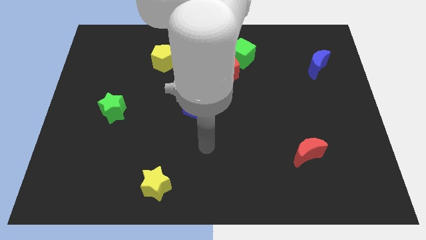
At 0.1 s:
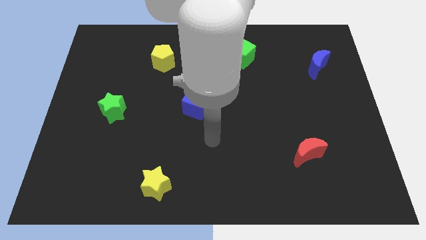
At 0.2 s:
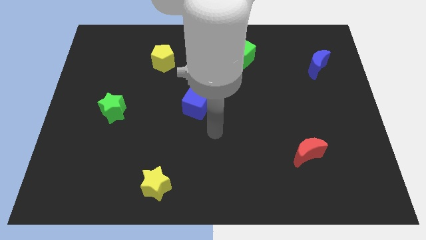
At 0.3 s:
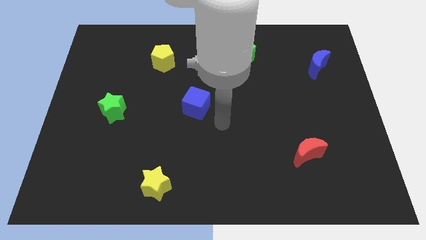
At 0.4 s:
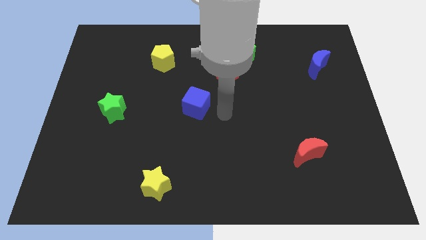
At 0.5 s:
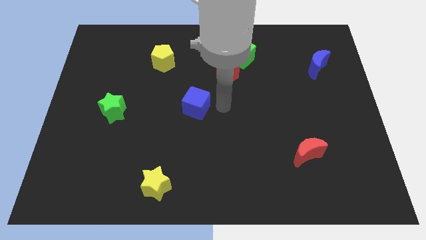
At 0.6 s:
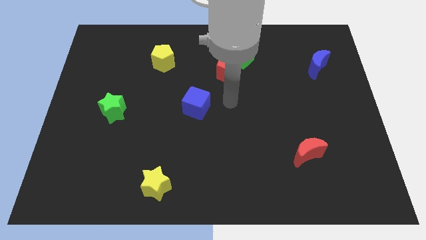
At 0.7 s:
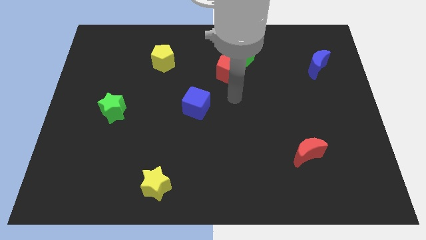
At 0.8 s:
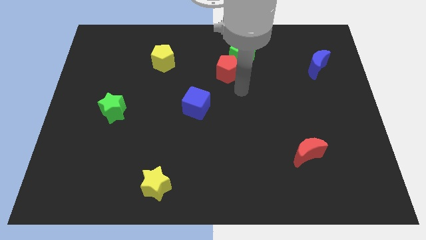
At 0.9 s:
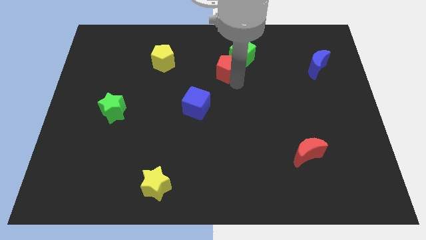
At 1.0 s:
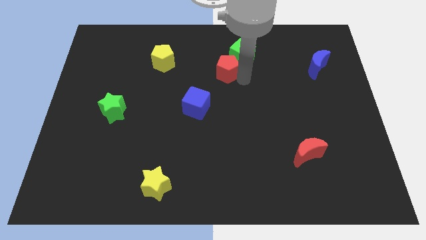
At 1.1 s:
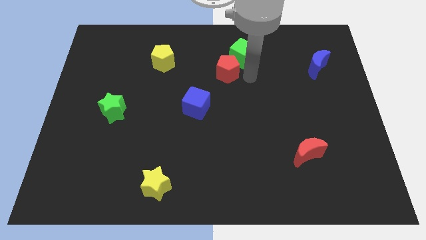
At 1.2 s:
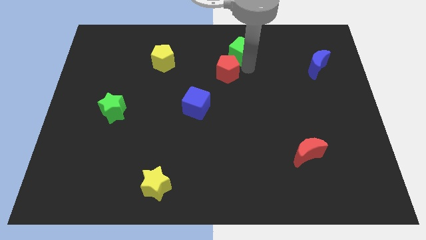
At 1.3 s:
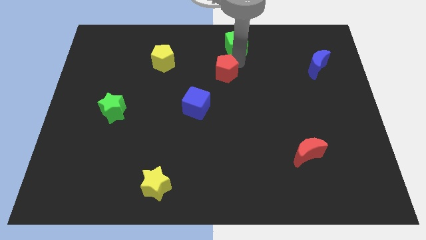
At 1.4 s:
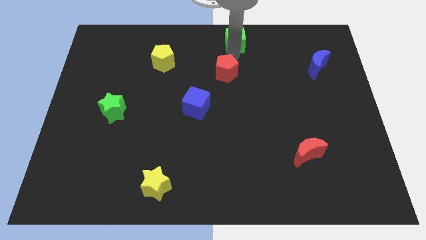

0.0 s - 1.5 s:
separate the red pentagon from the green cube

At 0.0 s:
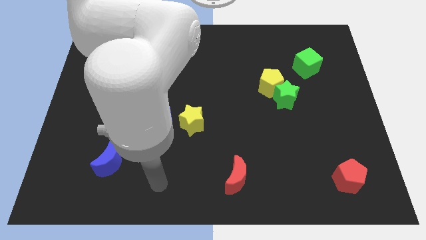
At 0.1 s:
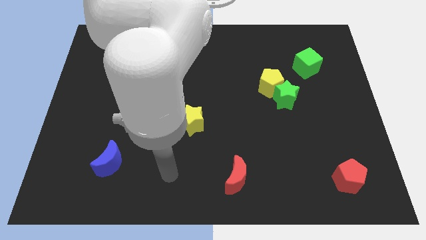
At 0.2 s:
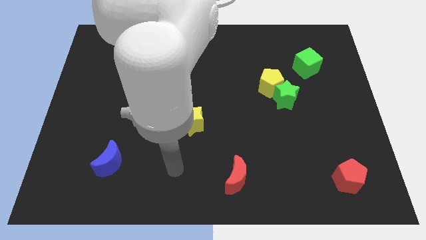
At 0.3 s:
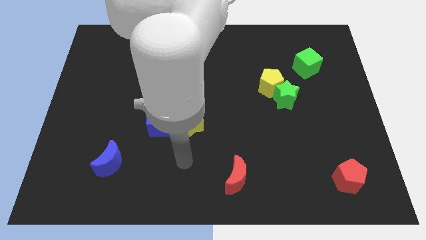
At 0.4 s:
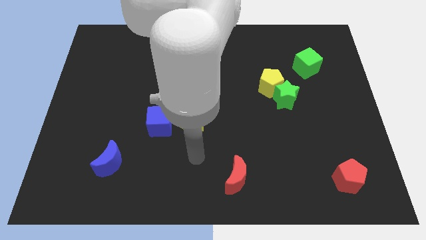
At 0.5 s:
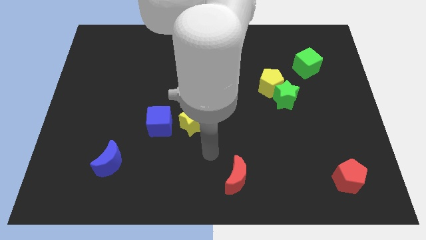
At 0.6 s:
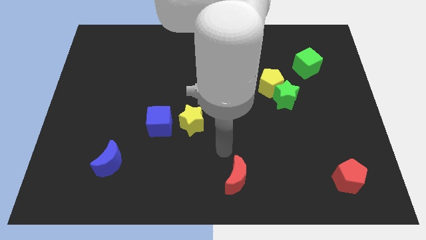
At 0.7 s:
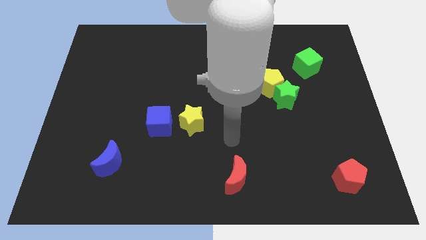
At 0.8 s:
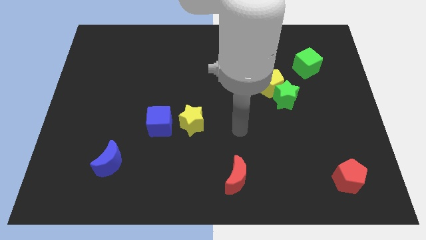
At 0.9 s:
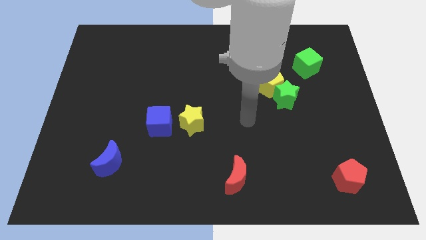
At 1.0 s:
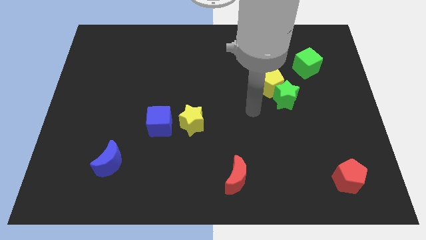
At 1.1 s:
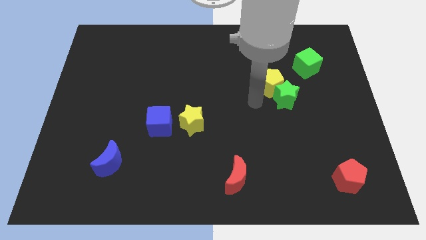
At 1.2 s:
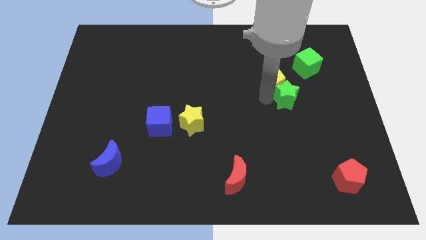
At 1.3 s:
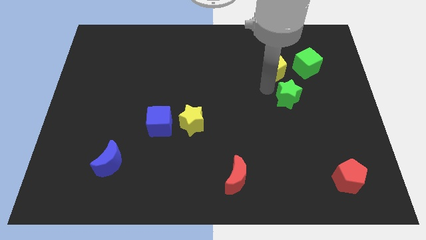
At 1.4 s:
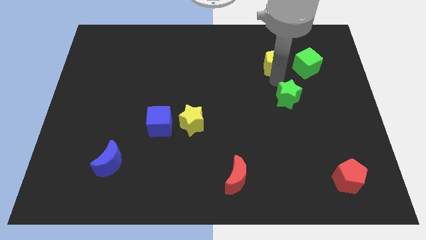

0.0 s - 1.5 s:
separate the green star from the yellow pentagon

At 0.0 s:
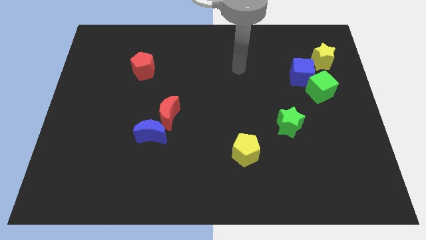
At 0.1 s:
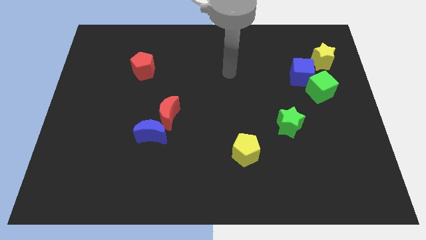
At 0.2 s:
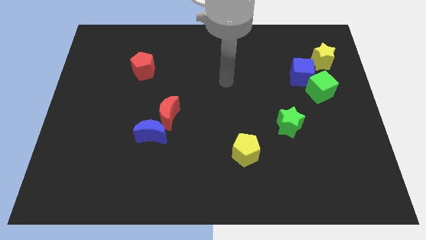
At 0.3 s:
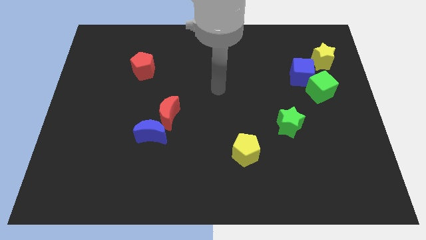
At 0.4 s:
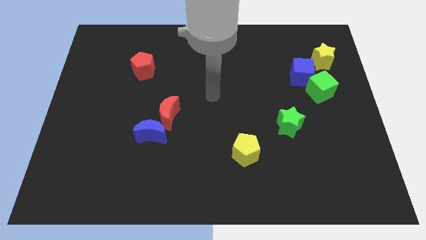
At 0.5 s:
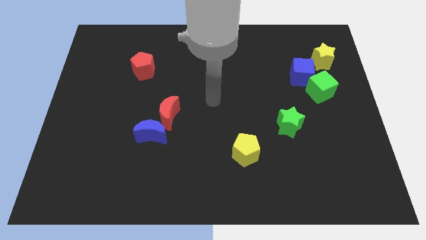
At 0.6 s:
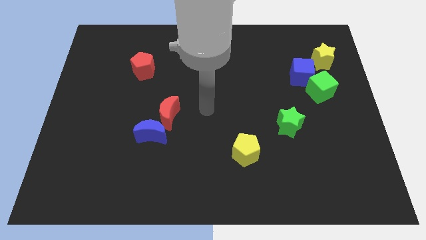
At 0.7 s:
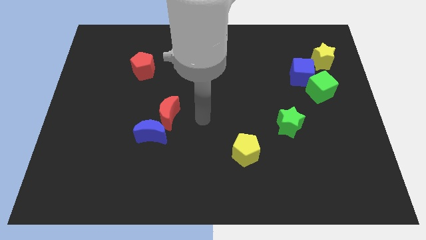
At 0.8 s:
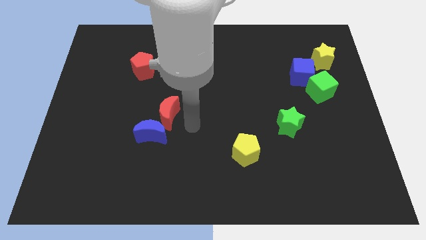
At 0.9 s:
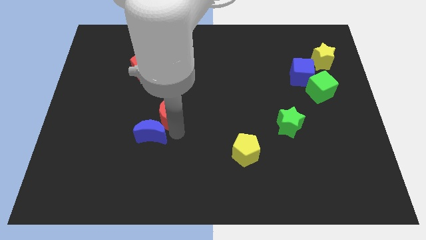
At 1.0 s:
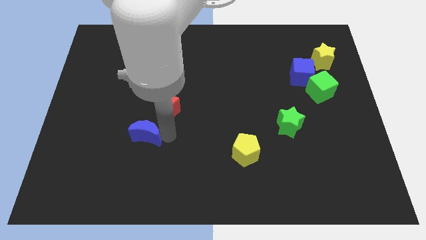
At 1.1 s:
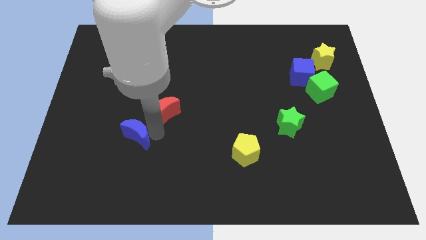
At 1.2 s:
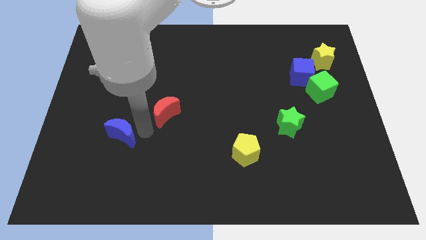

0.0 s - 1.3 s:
move the red moon away from the blue moon

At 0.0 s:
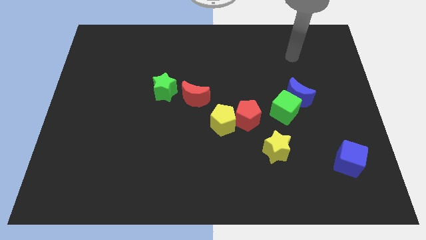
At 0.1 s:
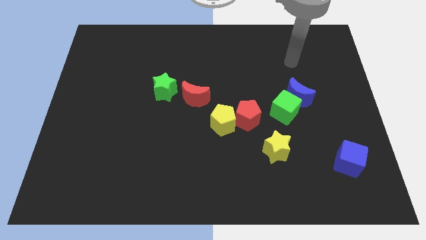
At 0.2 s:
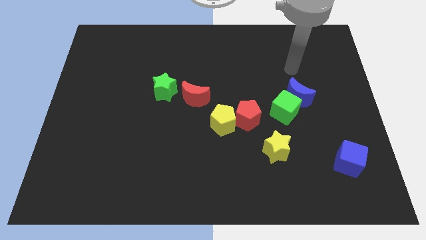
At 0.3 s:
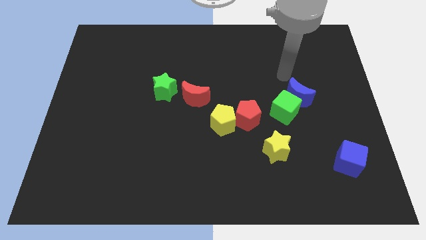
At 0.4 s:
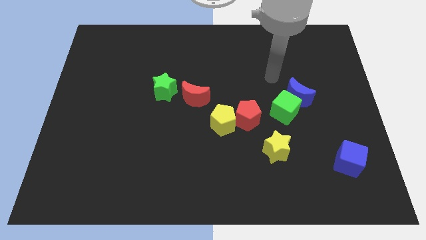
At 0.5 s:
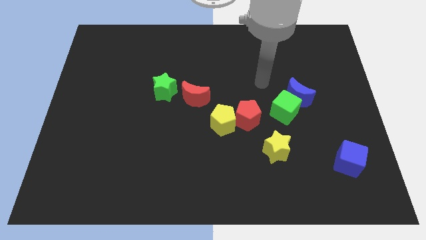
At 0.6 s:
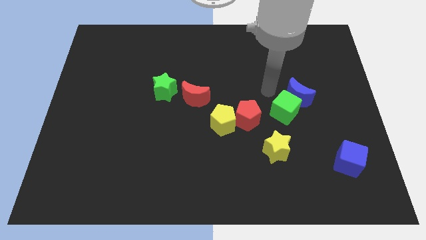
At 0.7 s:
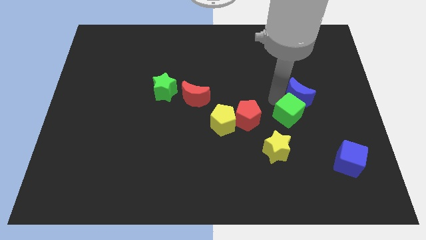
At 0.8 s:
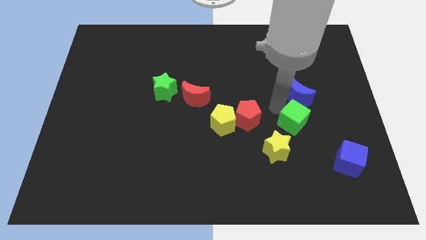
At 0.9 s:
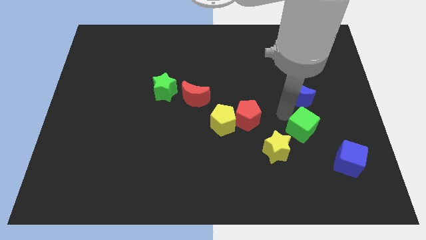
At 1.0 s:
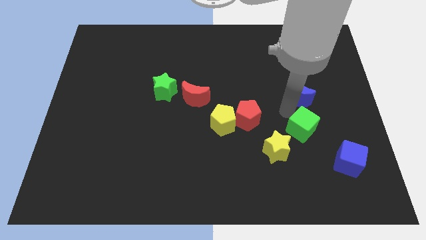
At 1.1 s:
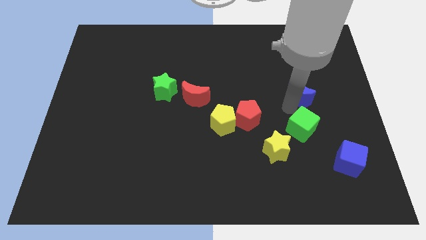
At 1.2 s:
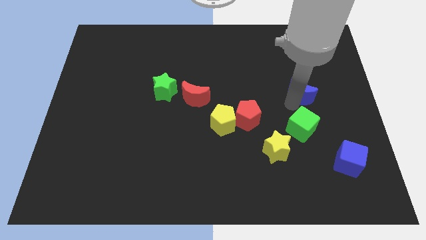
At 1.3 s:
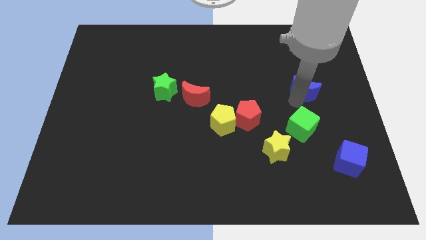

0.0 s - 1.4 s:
pull the blue moon apart from the green cube

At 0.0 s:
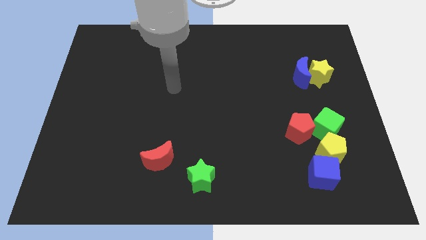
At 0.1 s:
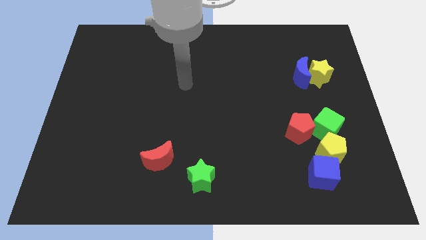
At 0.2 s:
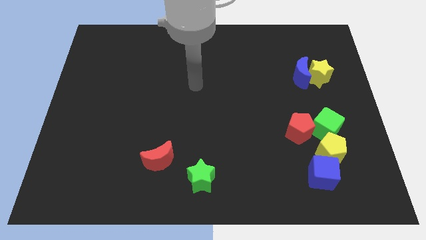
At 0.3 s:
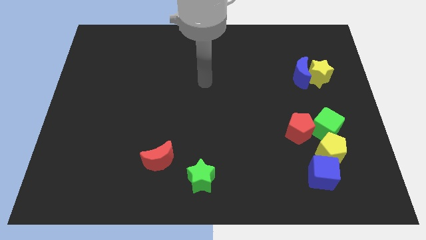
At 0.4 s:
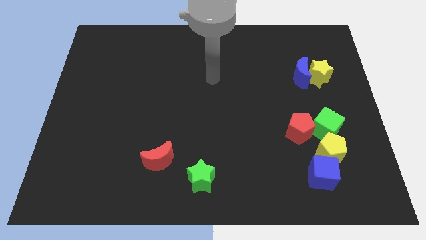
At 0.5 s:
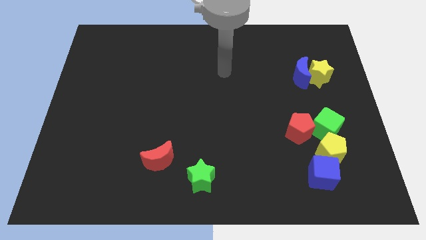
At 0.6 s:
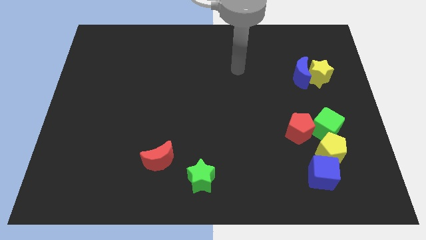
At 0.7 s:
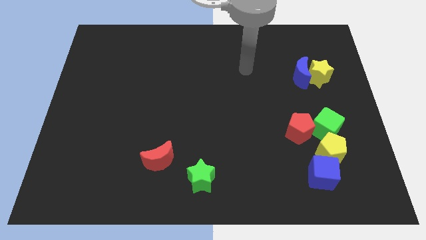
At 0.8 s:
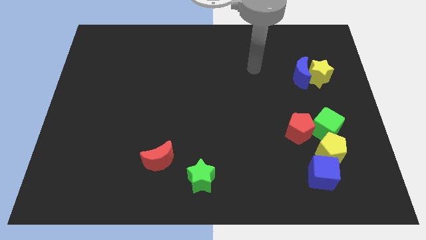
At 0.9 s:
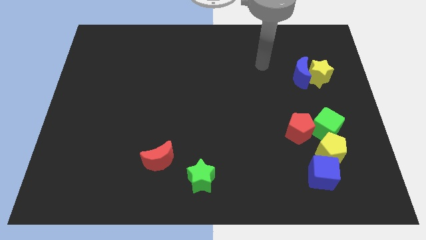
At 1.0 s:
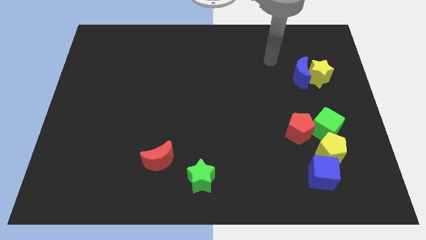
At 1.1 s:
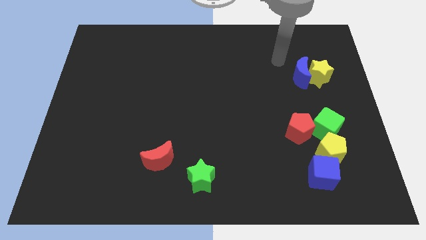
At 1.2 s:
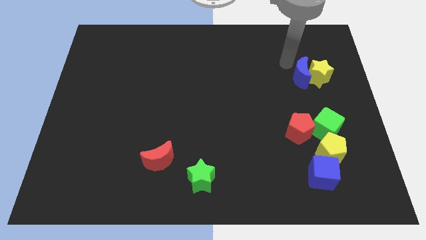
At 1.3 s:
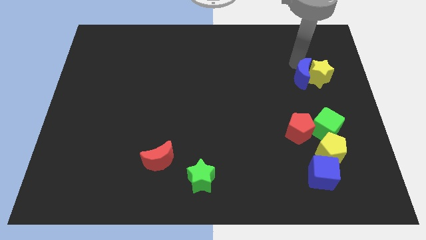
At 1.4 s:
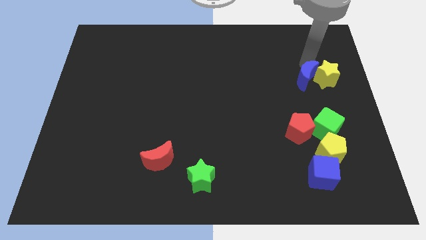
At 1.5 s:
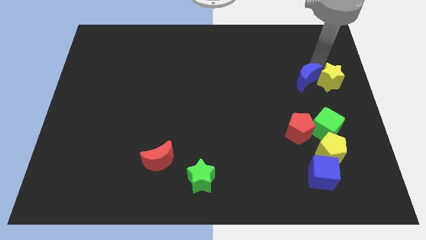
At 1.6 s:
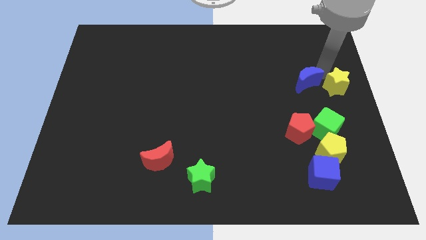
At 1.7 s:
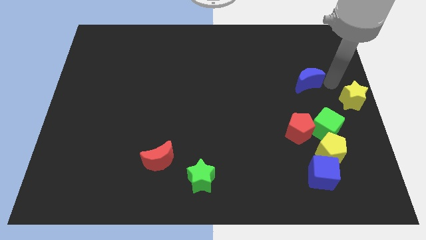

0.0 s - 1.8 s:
separate the blue moon from the yellow star

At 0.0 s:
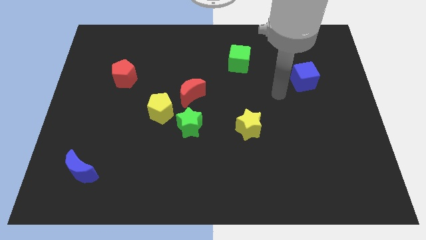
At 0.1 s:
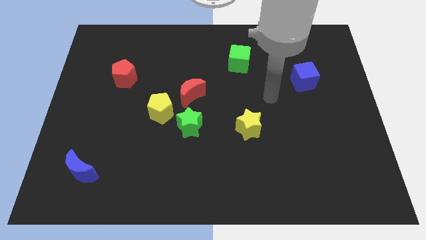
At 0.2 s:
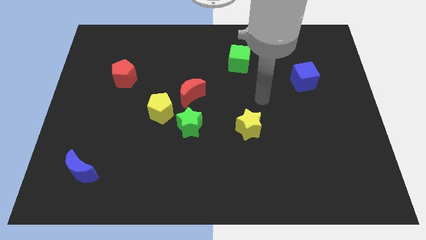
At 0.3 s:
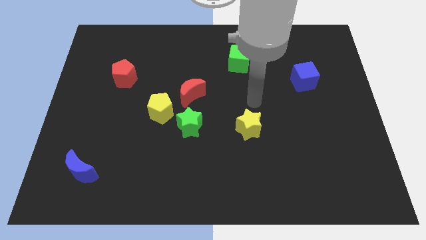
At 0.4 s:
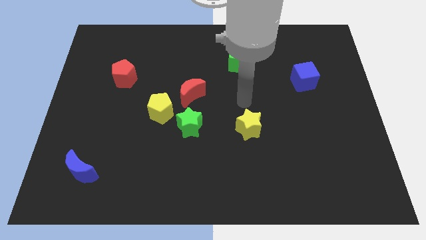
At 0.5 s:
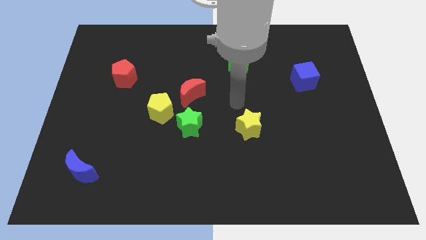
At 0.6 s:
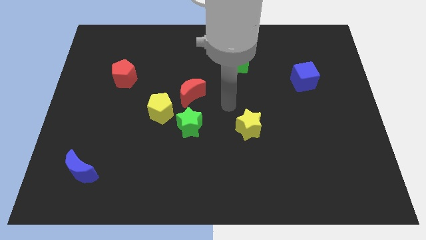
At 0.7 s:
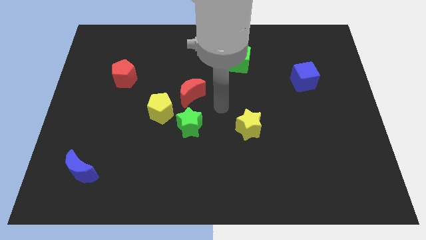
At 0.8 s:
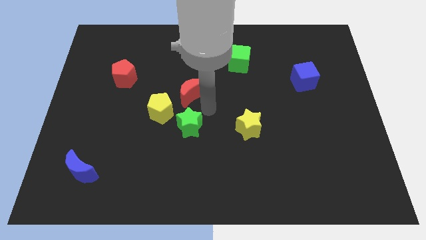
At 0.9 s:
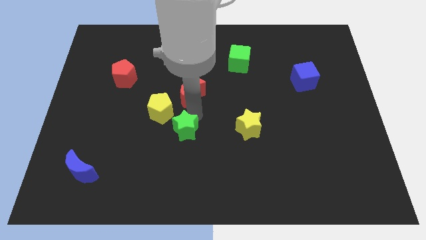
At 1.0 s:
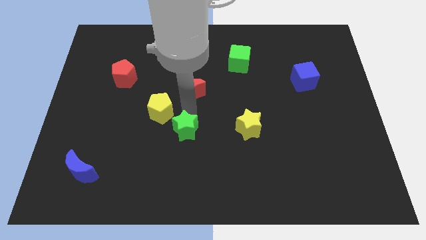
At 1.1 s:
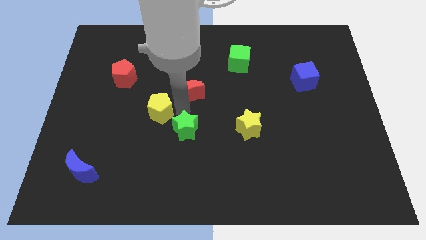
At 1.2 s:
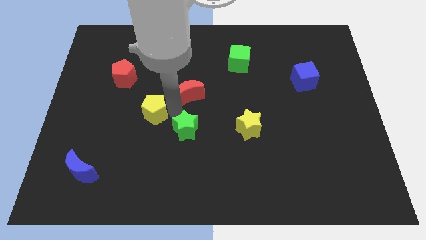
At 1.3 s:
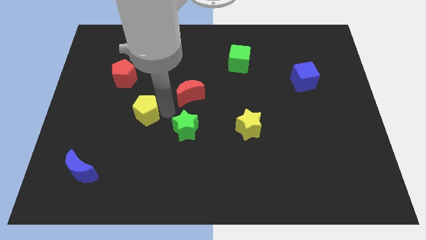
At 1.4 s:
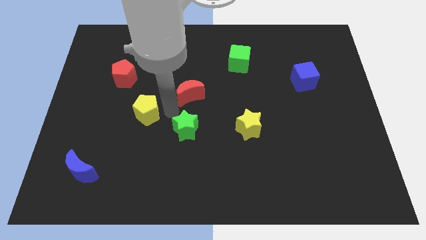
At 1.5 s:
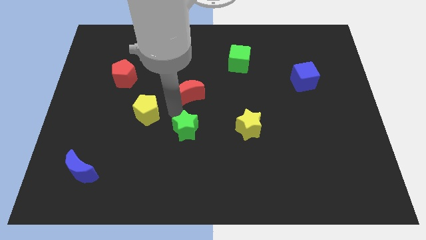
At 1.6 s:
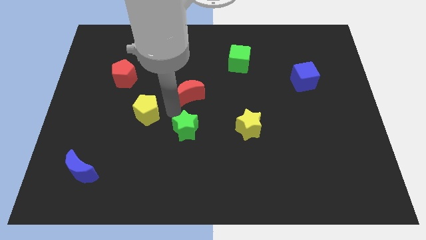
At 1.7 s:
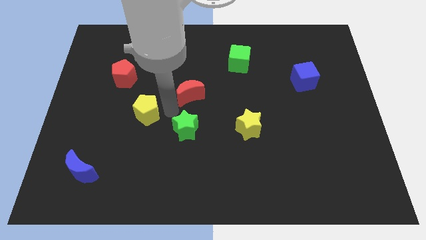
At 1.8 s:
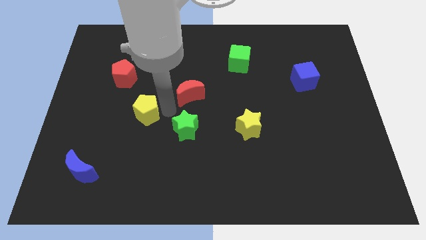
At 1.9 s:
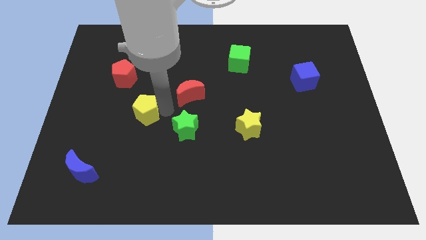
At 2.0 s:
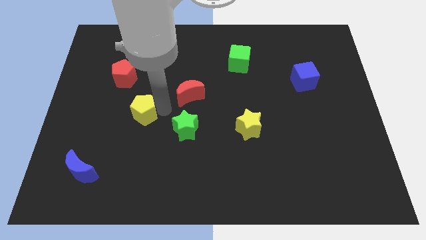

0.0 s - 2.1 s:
separate the yellow pentagon from the green star and red moon
